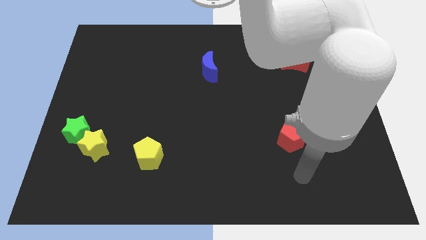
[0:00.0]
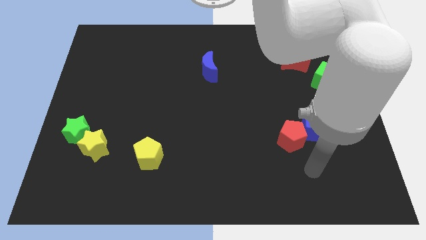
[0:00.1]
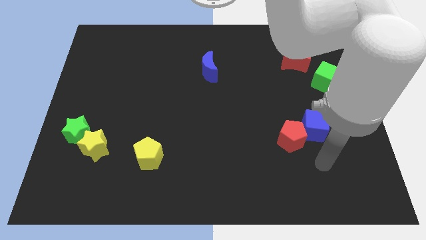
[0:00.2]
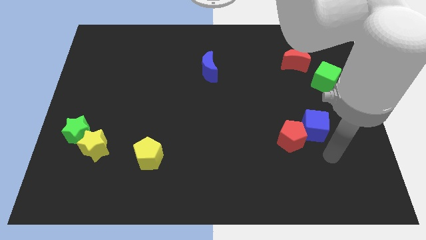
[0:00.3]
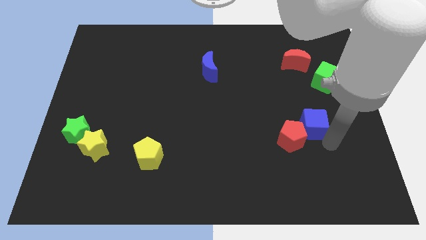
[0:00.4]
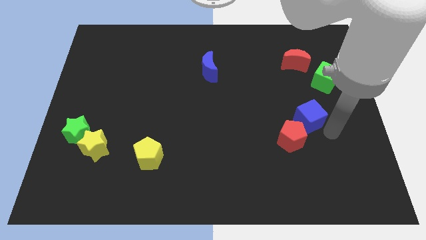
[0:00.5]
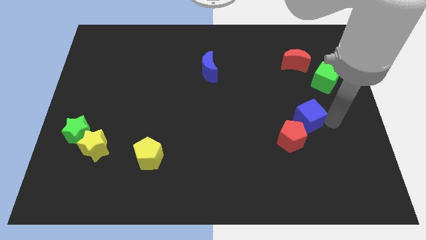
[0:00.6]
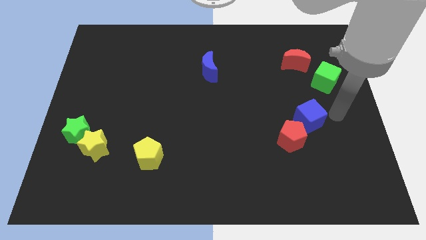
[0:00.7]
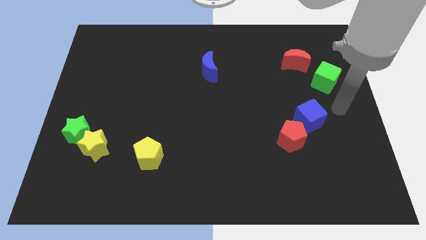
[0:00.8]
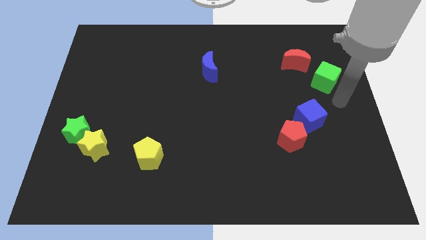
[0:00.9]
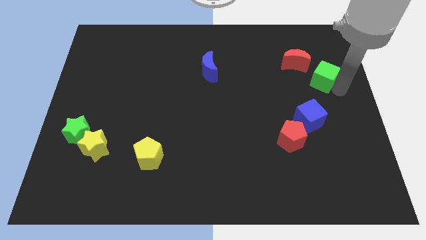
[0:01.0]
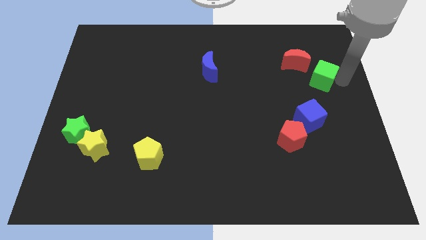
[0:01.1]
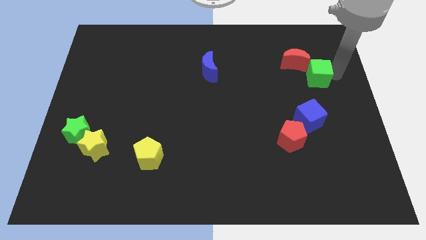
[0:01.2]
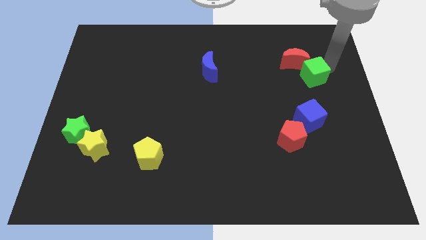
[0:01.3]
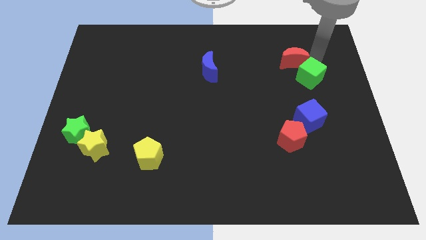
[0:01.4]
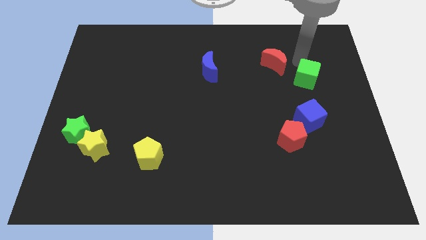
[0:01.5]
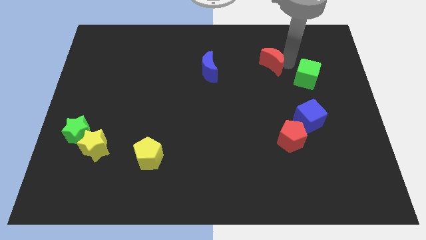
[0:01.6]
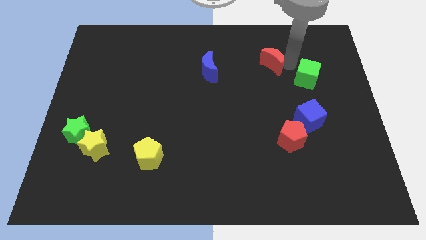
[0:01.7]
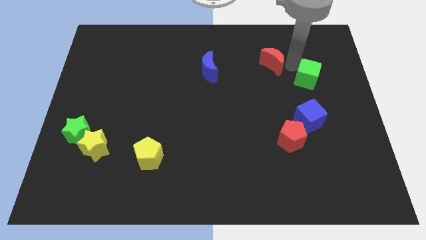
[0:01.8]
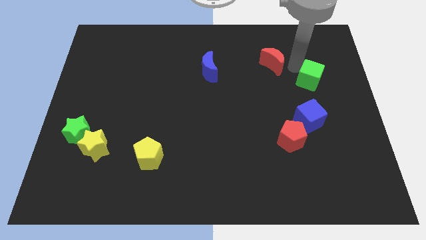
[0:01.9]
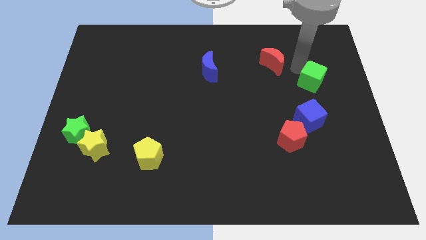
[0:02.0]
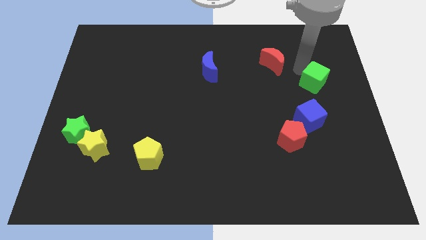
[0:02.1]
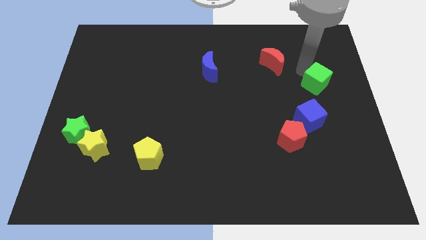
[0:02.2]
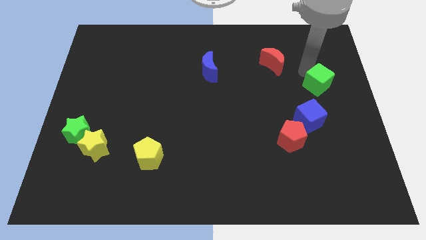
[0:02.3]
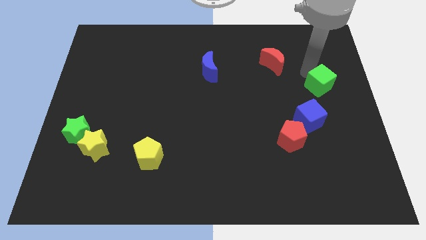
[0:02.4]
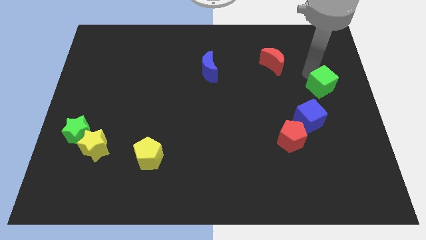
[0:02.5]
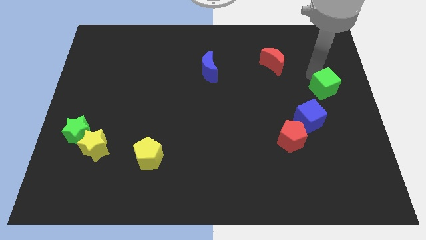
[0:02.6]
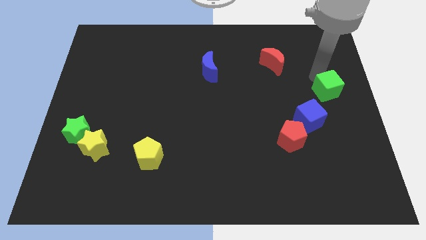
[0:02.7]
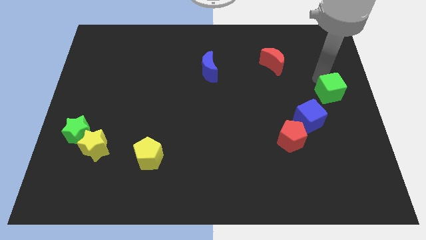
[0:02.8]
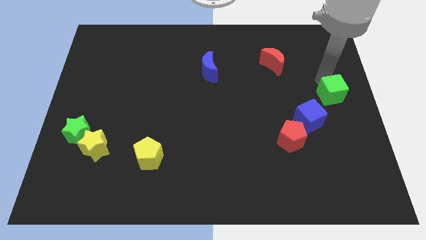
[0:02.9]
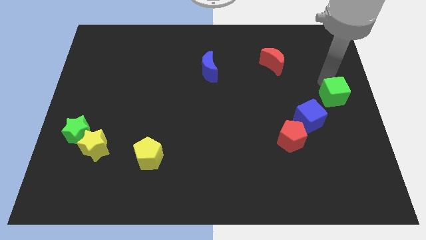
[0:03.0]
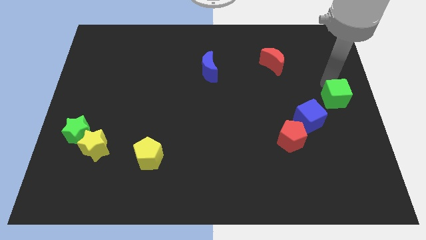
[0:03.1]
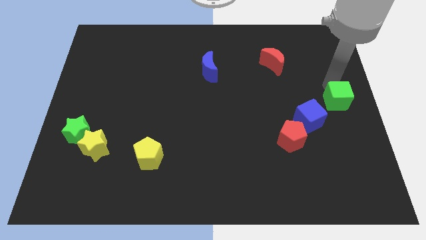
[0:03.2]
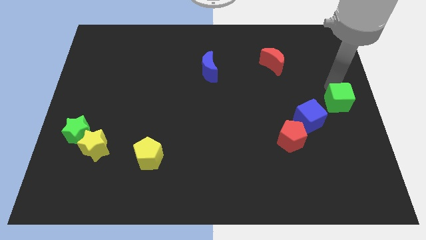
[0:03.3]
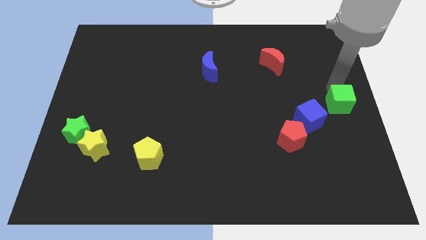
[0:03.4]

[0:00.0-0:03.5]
slide the green cube a bit downwards

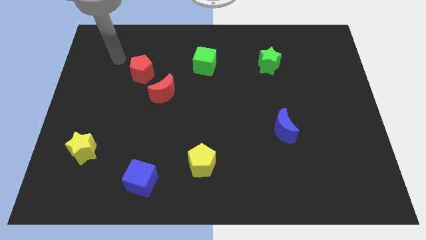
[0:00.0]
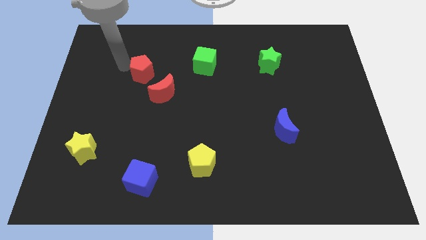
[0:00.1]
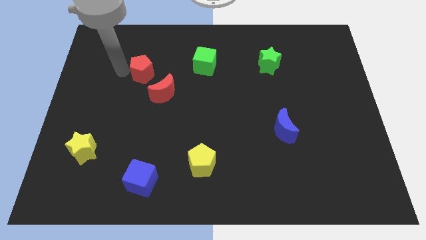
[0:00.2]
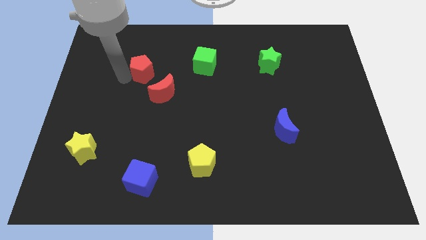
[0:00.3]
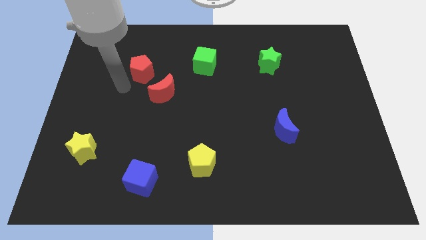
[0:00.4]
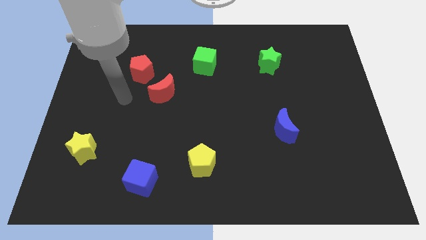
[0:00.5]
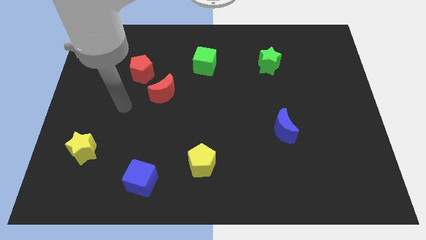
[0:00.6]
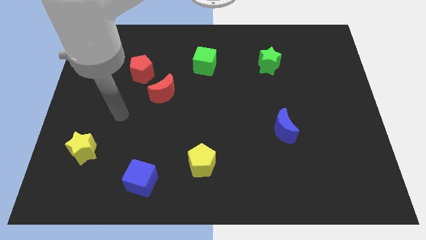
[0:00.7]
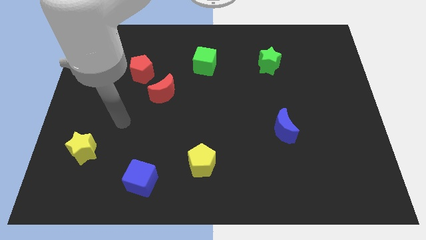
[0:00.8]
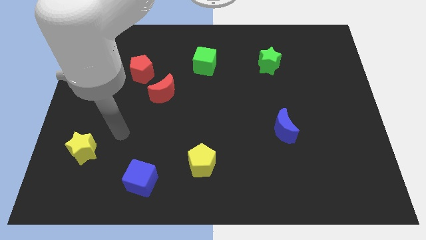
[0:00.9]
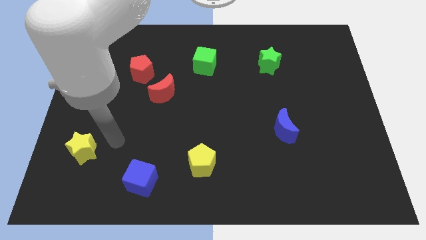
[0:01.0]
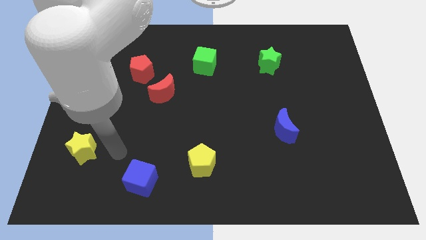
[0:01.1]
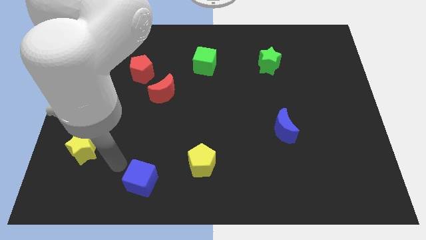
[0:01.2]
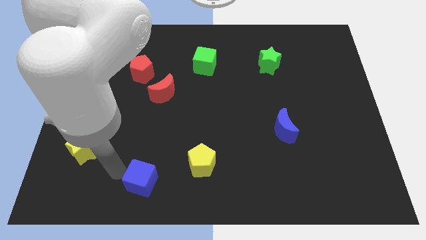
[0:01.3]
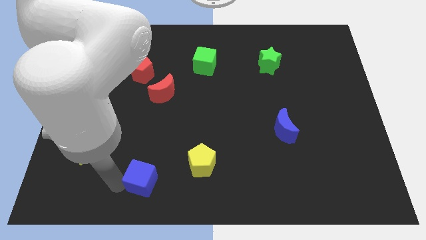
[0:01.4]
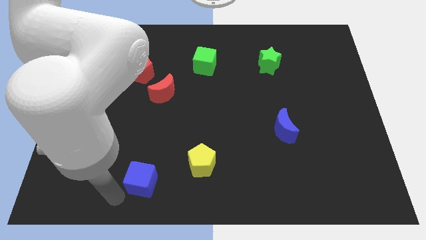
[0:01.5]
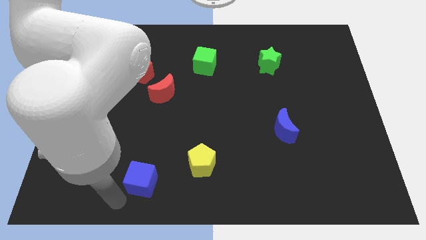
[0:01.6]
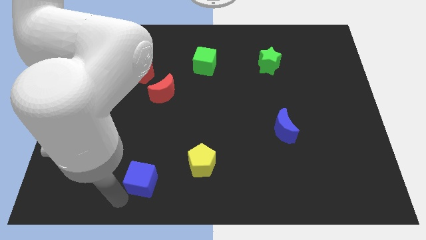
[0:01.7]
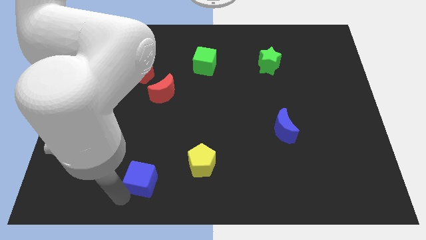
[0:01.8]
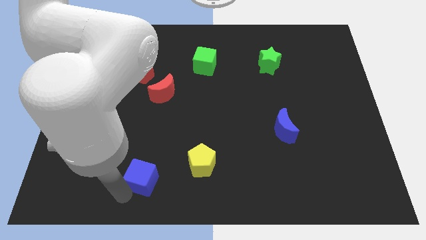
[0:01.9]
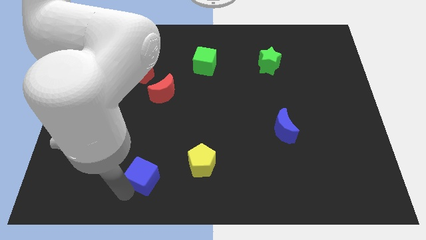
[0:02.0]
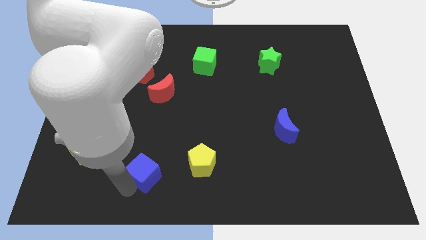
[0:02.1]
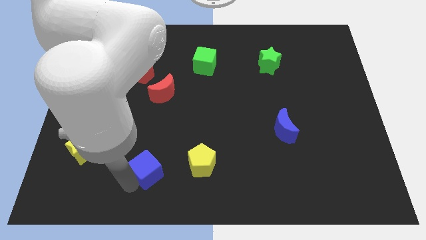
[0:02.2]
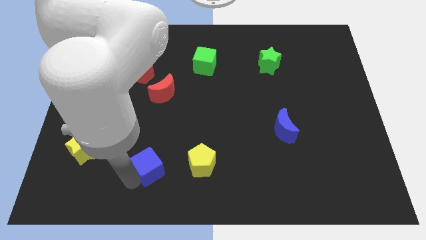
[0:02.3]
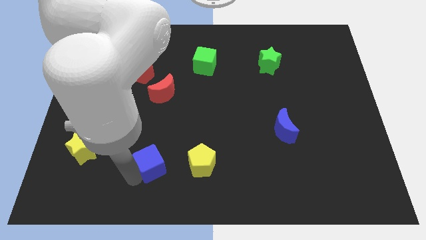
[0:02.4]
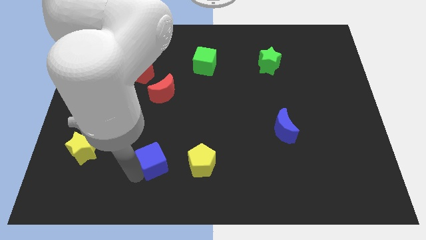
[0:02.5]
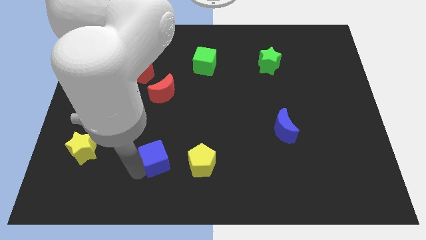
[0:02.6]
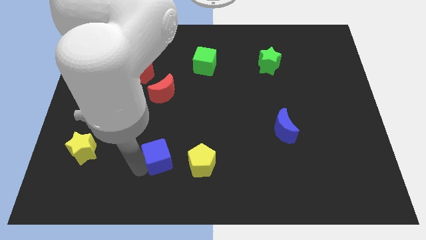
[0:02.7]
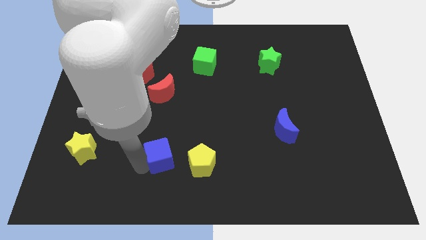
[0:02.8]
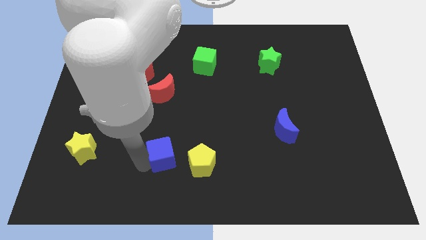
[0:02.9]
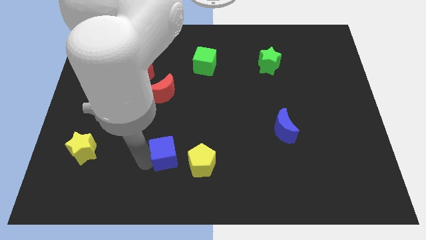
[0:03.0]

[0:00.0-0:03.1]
slightly move the blue cube diagonally upwards and to the right

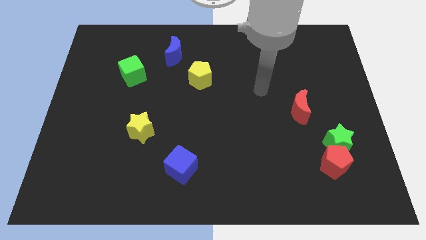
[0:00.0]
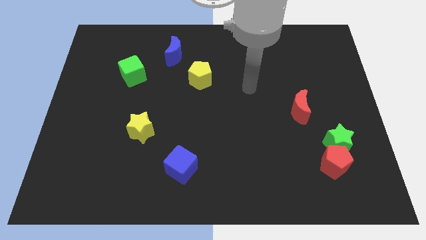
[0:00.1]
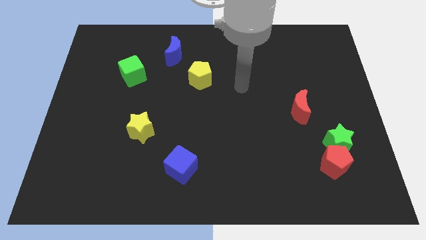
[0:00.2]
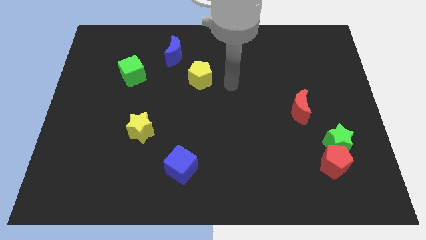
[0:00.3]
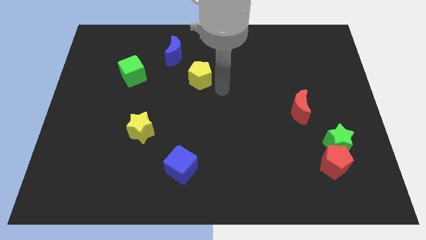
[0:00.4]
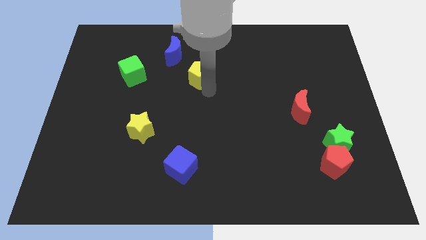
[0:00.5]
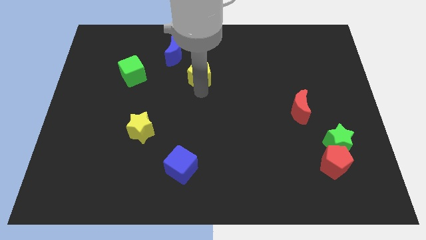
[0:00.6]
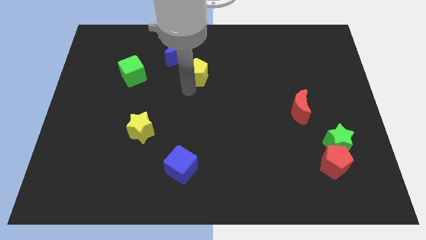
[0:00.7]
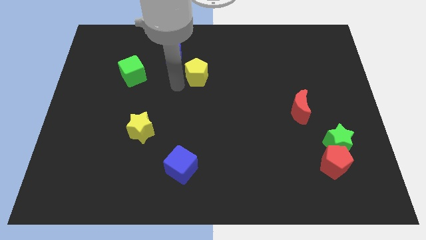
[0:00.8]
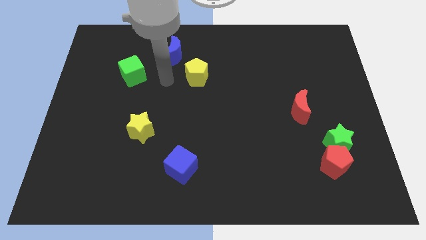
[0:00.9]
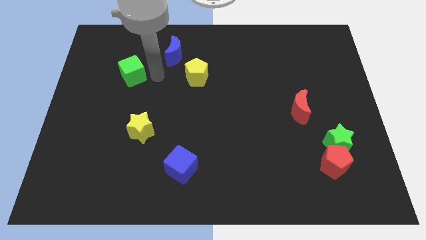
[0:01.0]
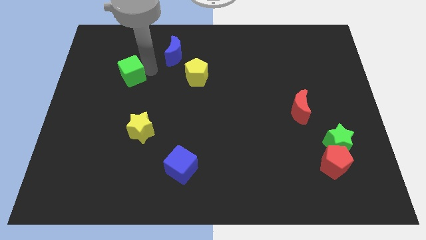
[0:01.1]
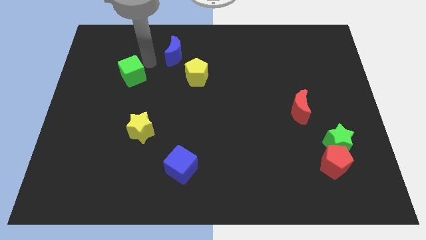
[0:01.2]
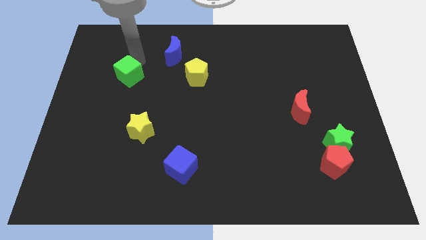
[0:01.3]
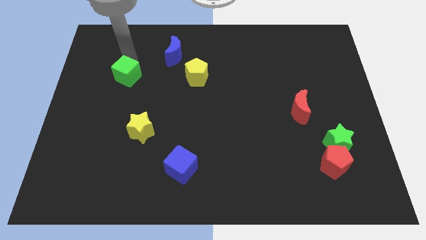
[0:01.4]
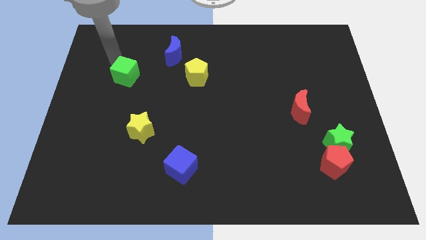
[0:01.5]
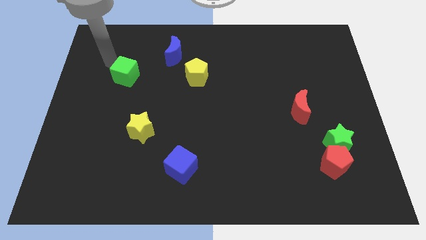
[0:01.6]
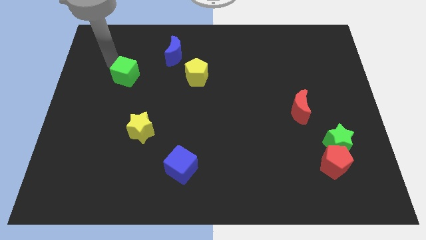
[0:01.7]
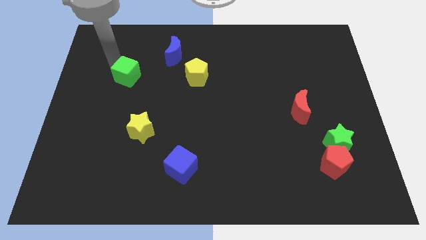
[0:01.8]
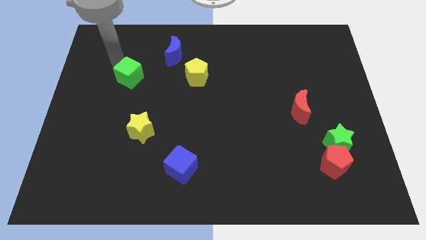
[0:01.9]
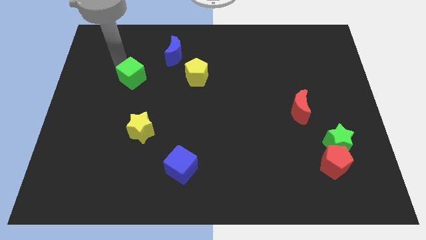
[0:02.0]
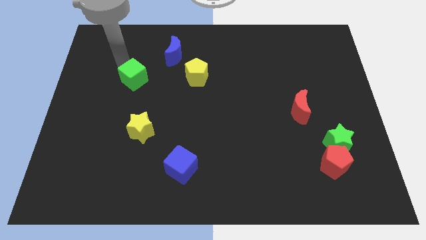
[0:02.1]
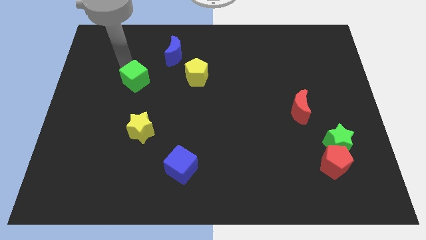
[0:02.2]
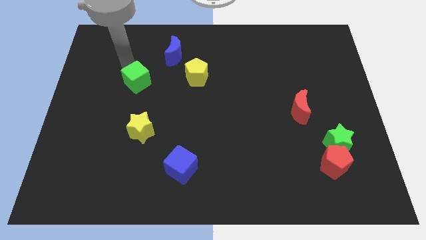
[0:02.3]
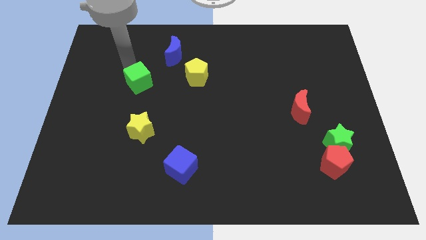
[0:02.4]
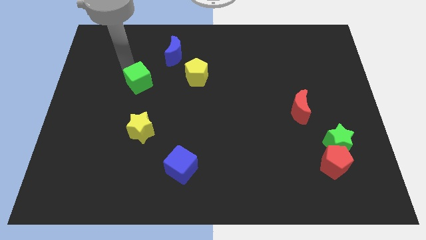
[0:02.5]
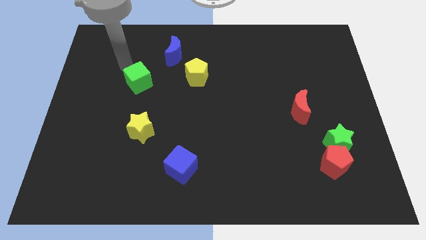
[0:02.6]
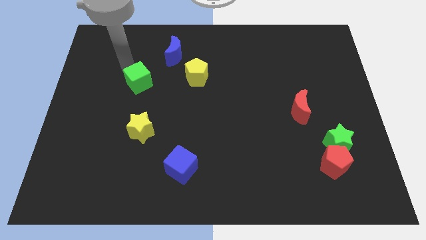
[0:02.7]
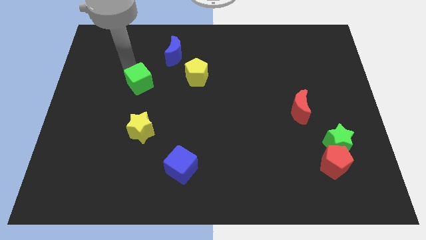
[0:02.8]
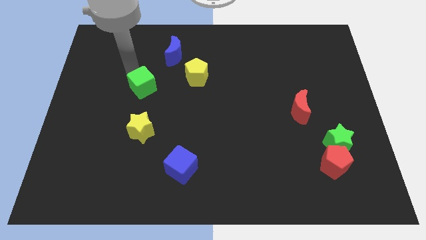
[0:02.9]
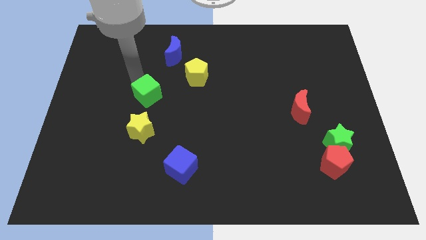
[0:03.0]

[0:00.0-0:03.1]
move the green cube diagonally downwards and to the right a little bit
